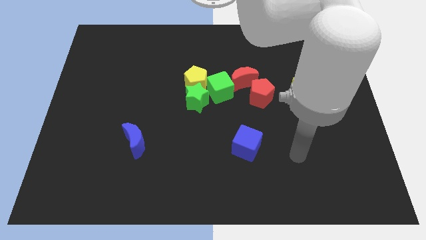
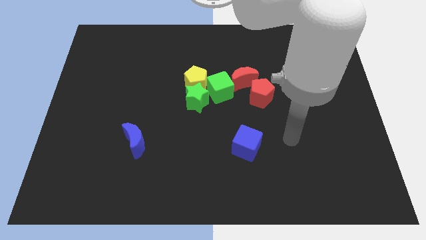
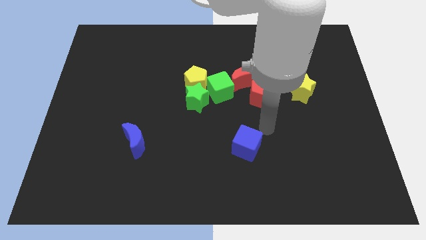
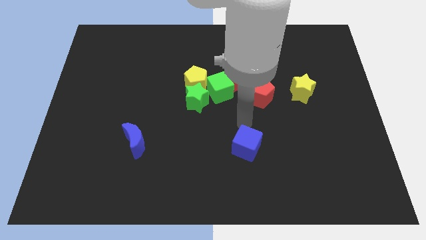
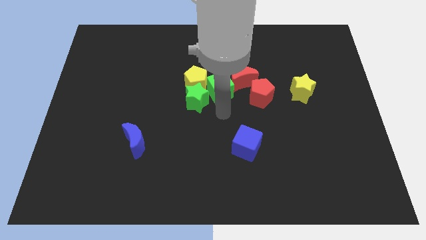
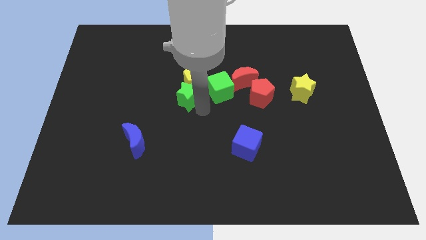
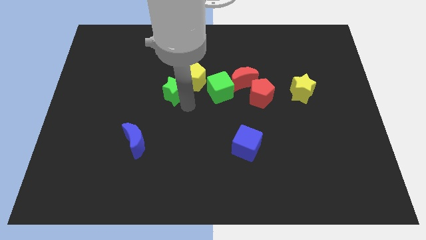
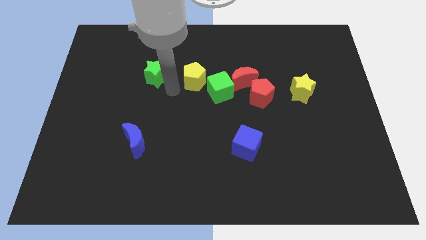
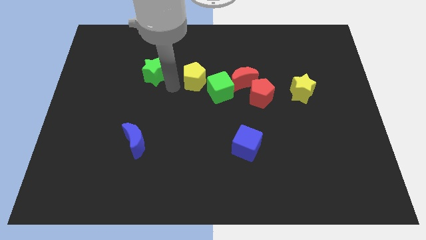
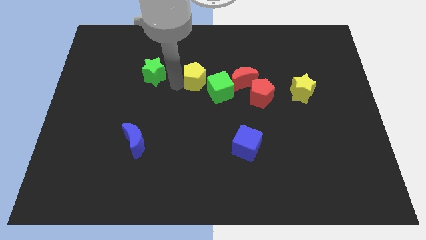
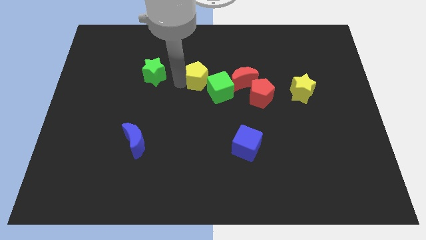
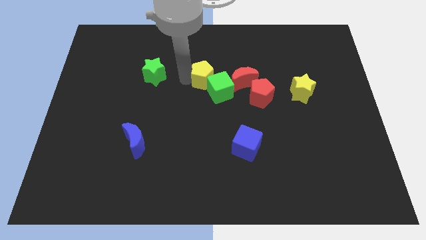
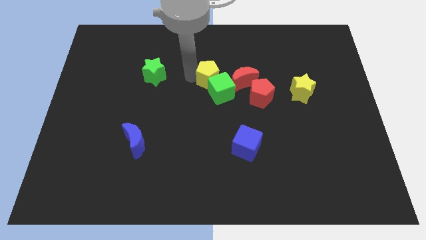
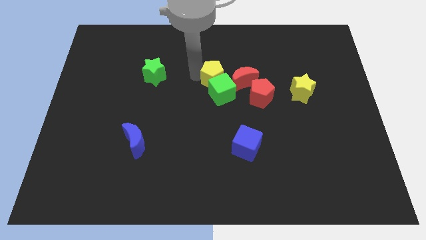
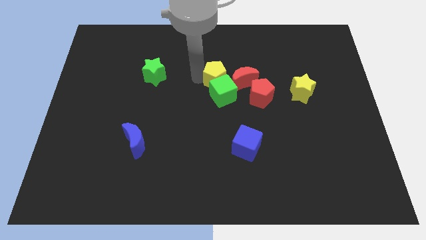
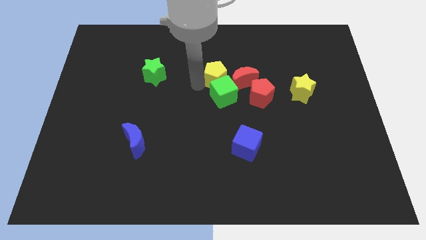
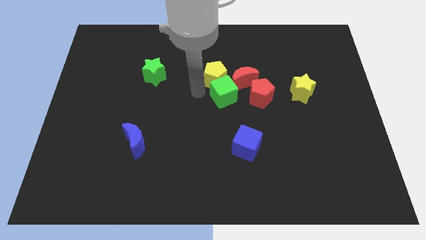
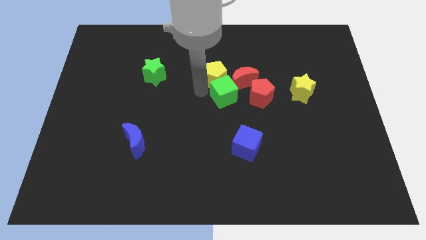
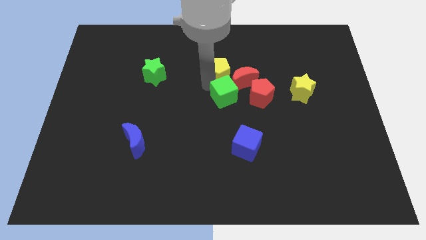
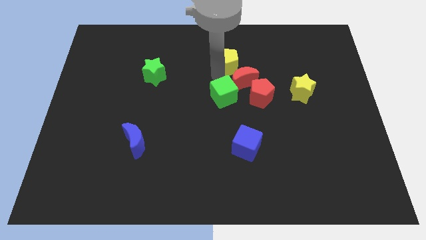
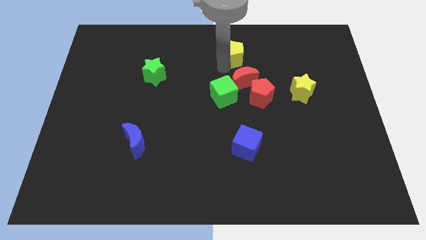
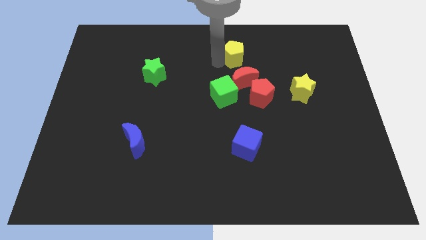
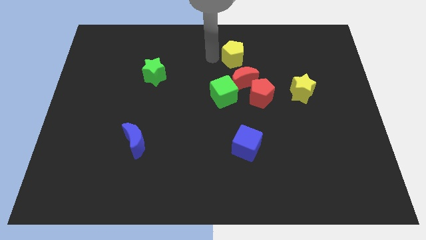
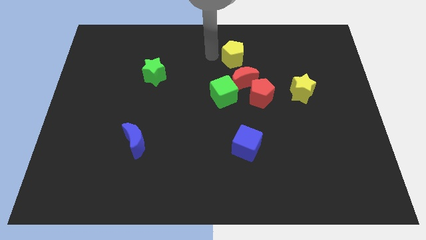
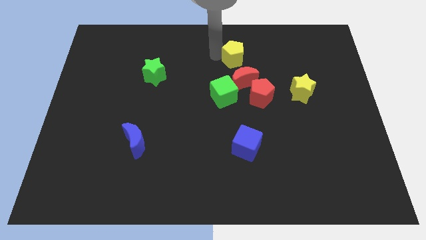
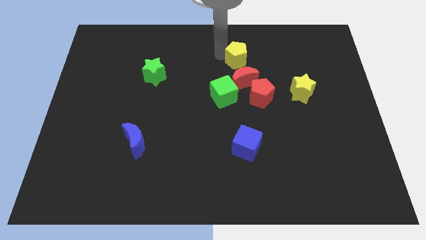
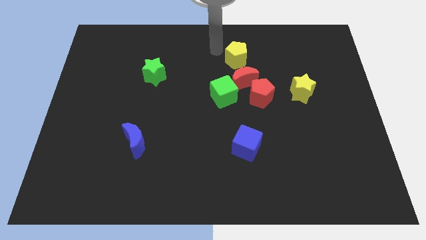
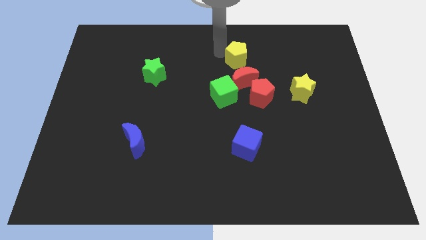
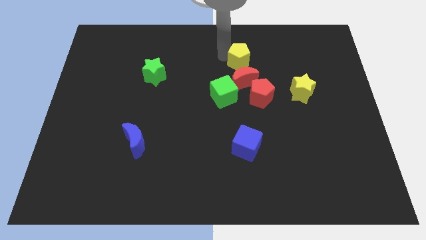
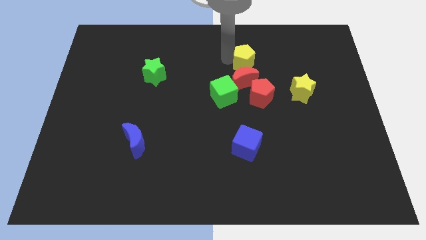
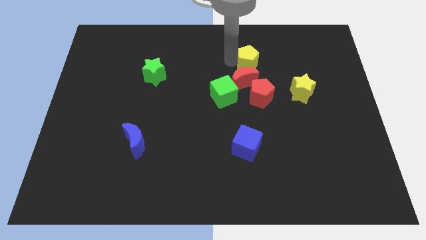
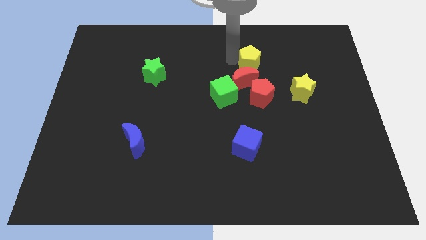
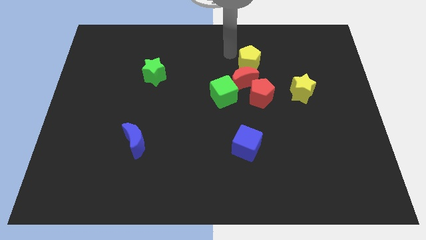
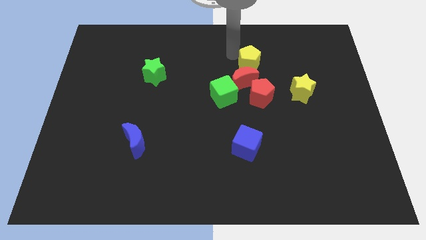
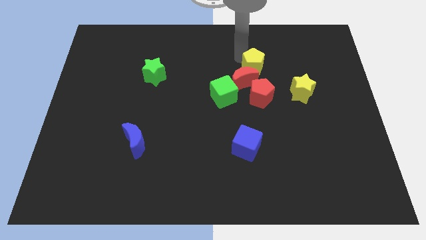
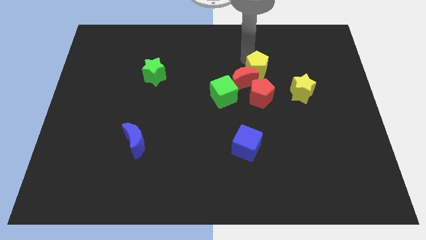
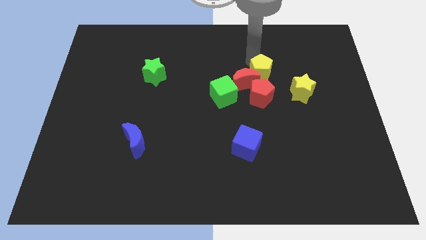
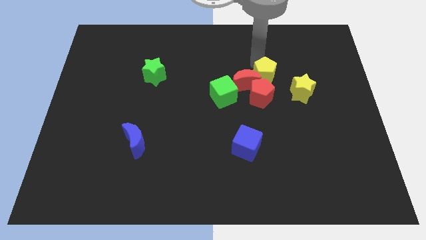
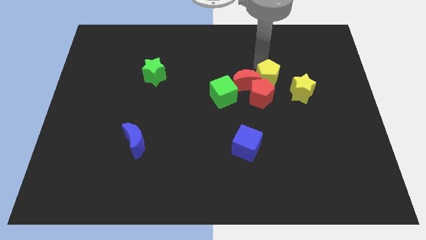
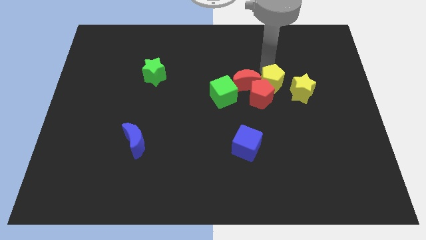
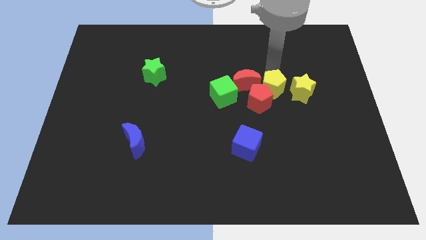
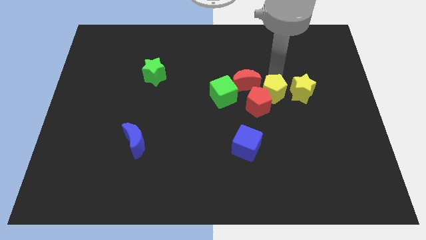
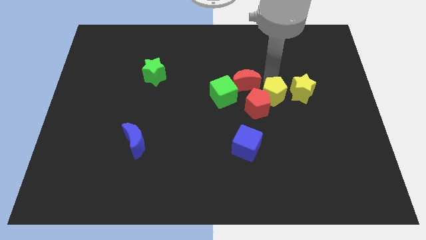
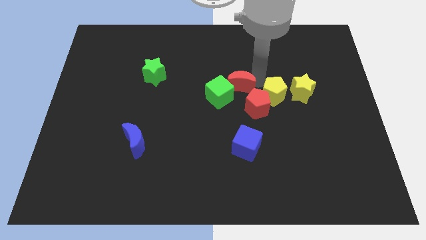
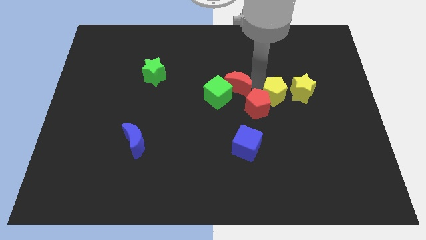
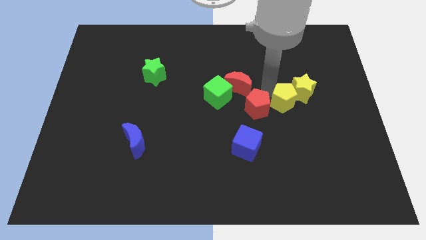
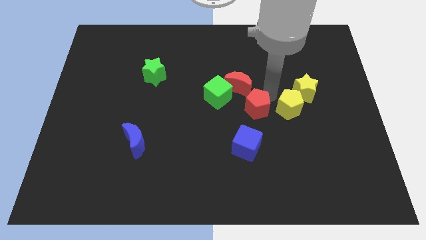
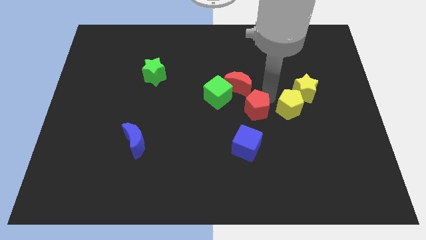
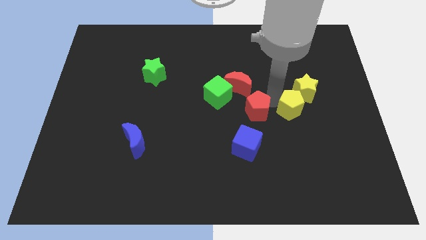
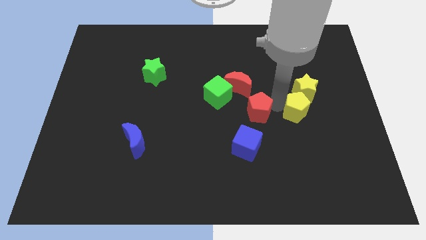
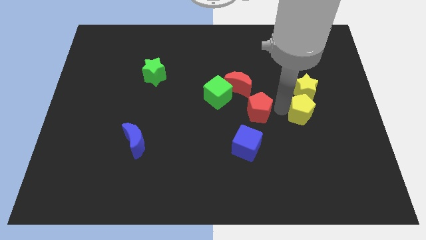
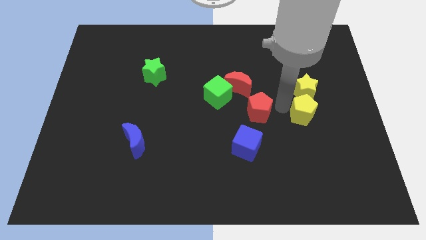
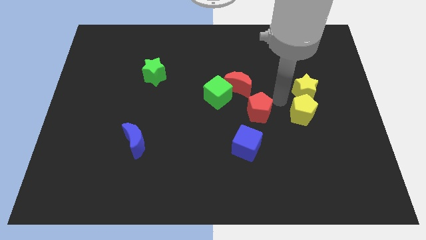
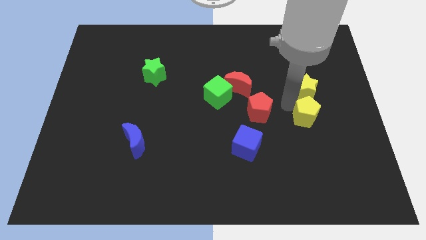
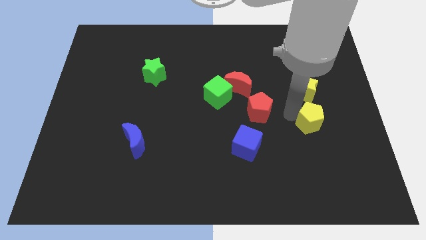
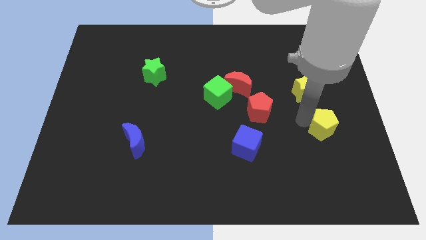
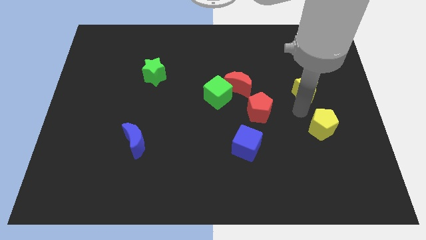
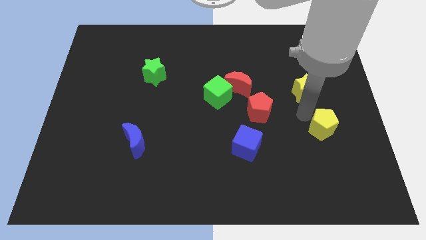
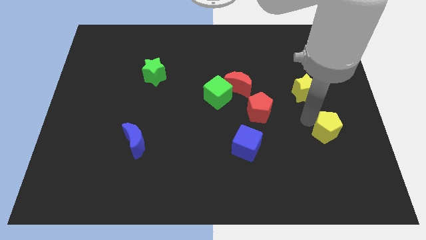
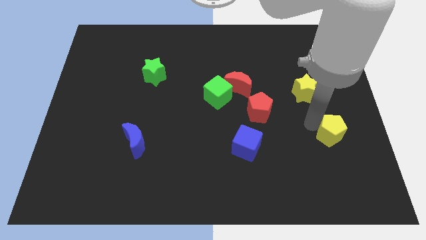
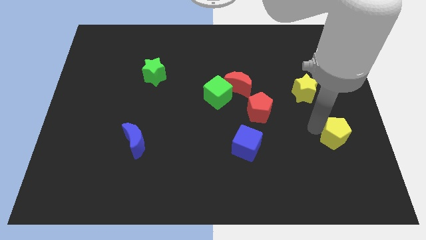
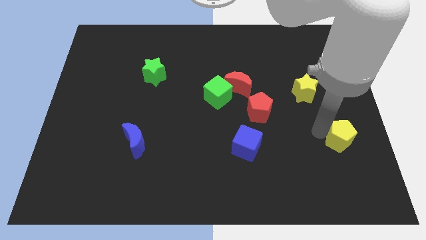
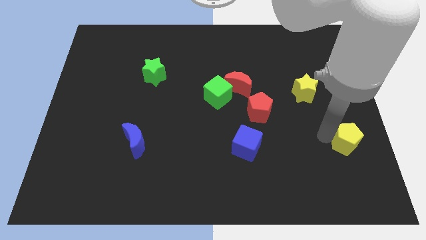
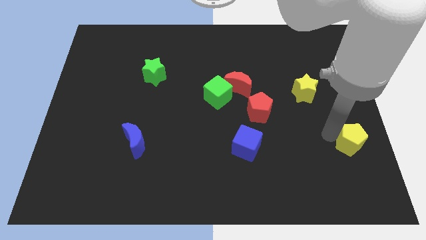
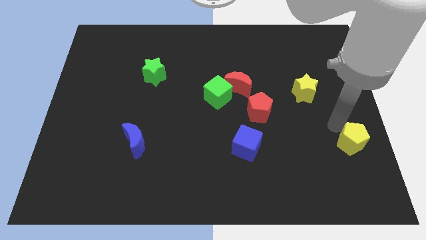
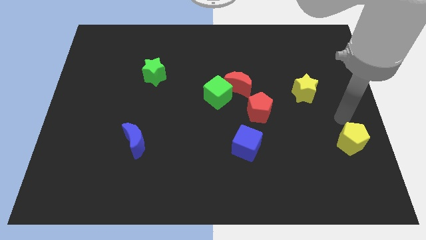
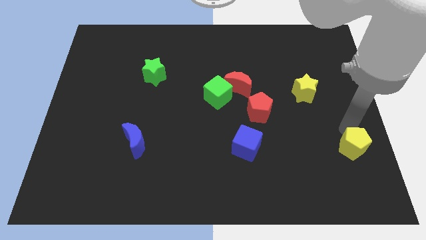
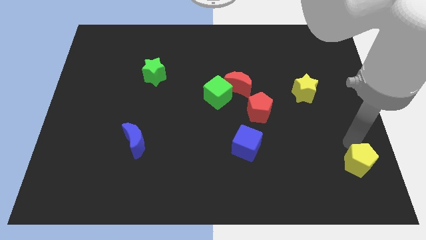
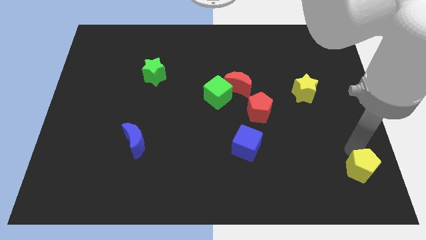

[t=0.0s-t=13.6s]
put the yellow pentagon to the bottom right corner
